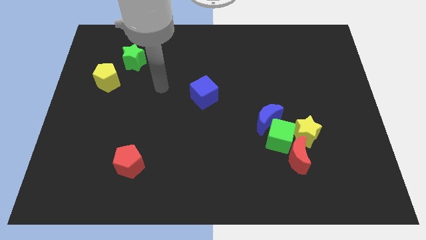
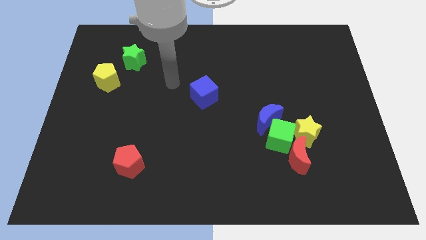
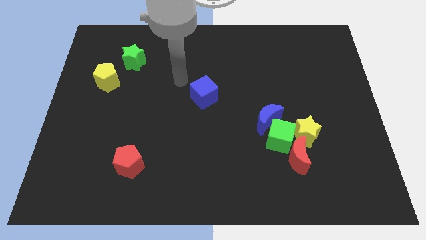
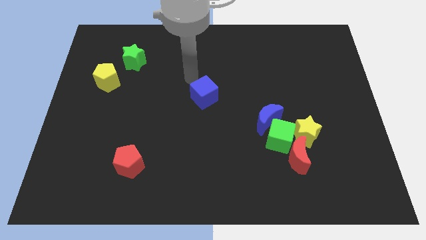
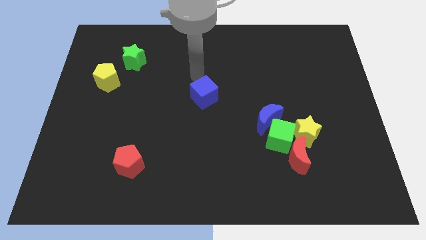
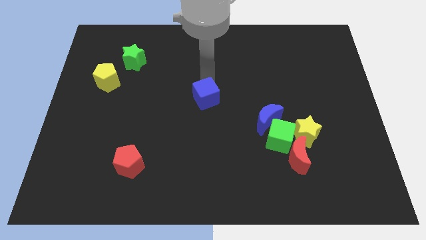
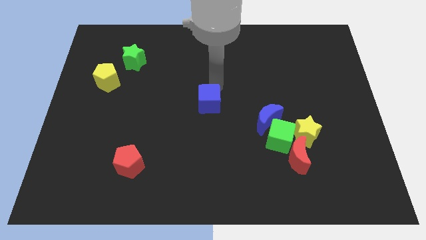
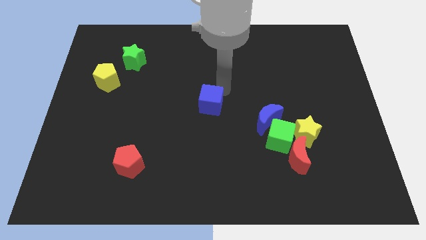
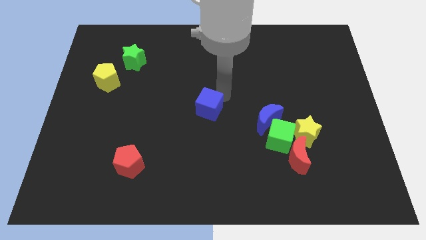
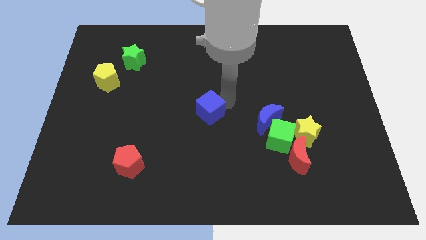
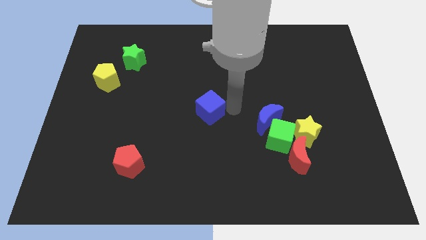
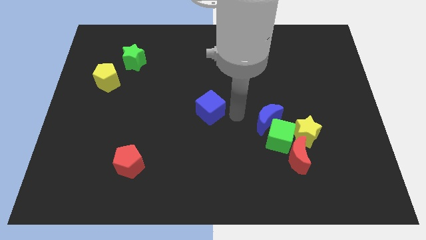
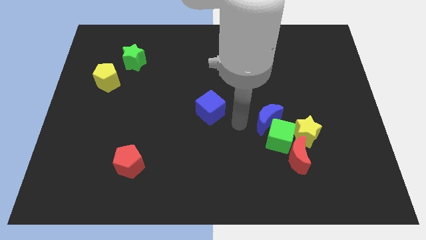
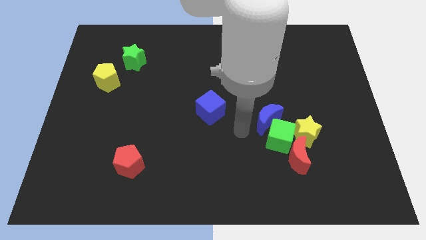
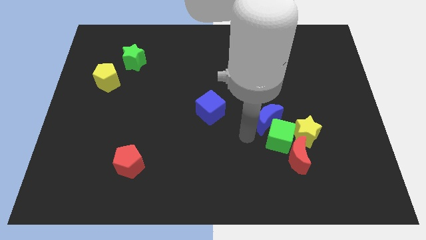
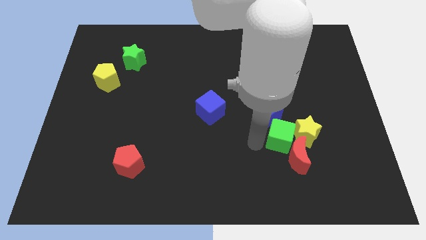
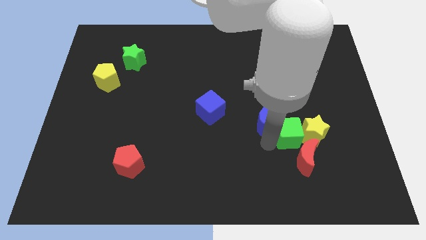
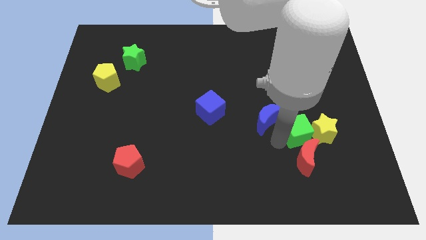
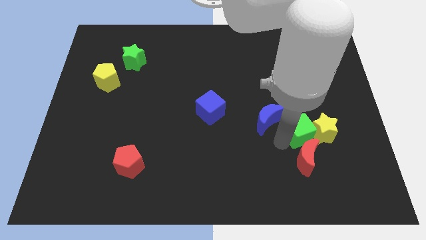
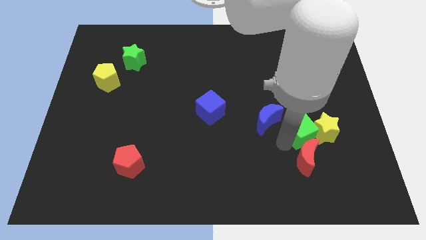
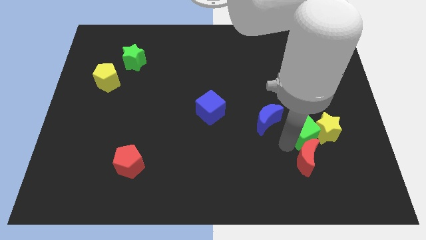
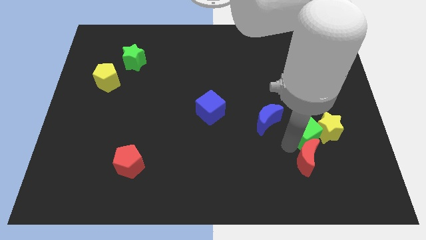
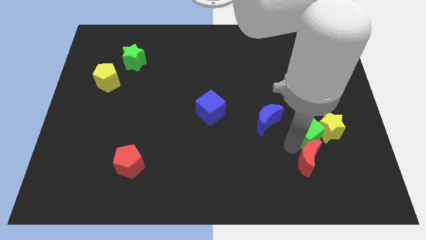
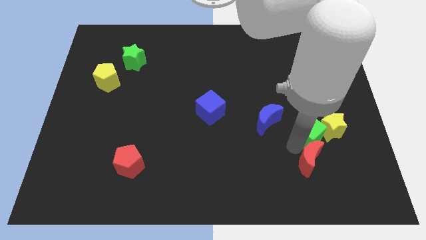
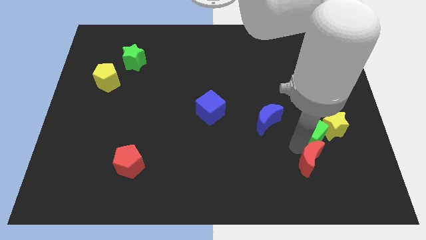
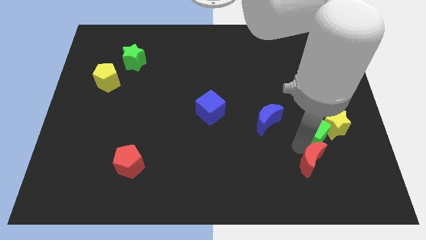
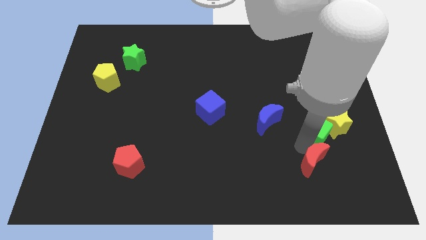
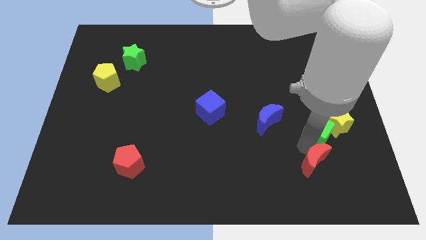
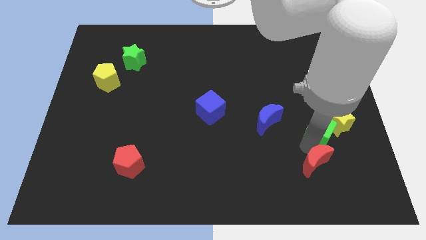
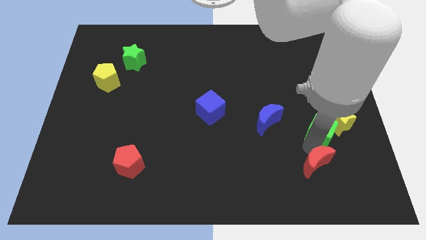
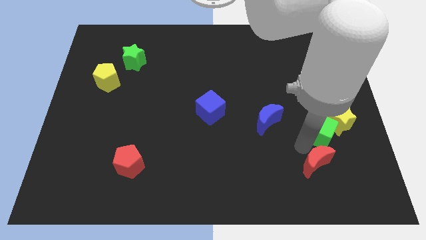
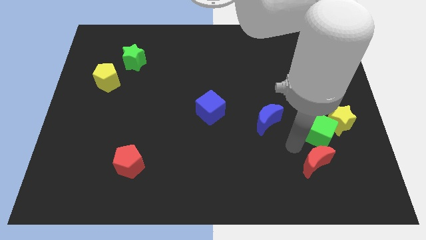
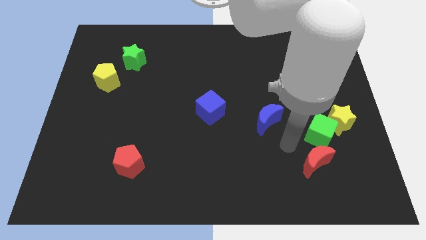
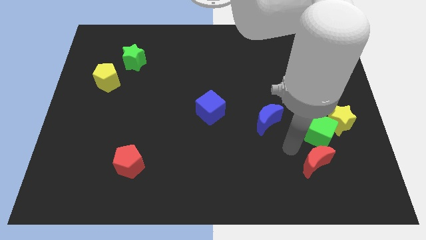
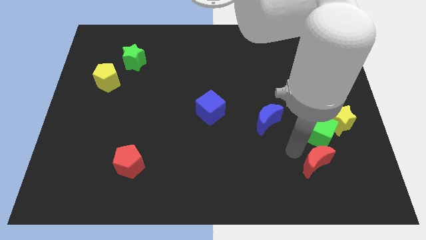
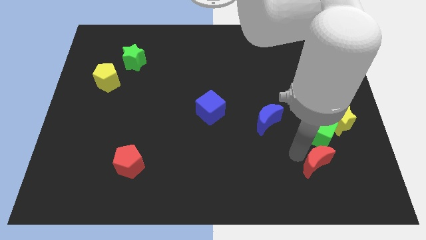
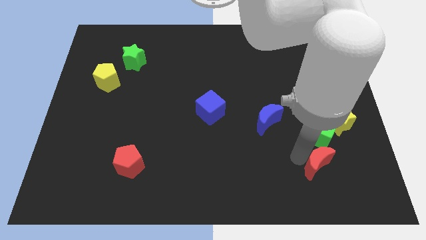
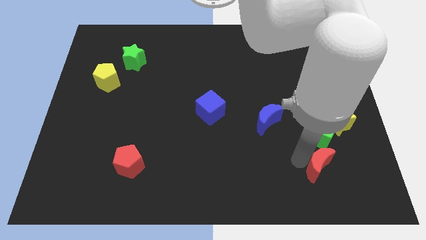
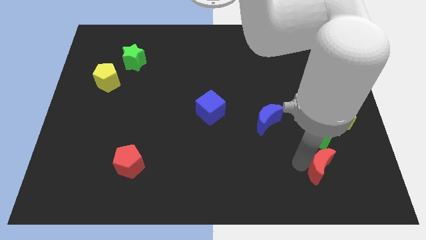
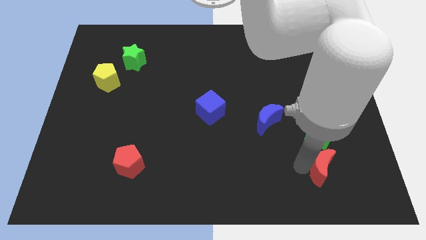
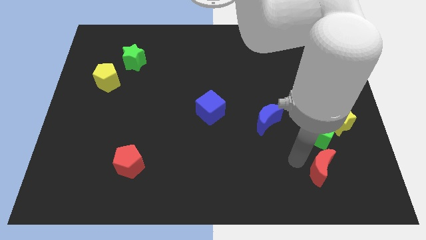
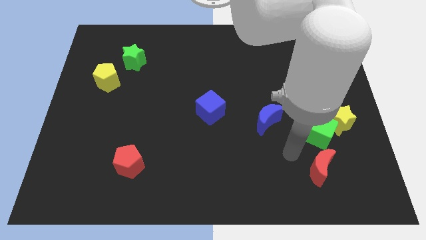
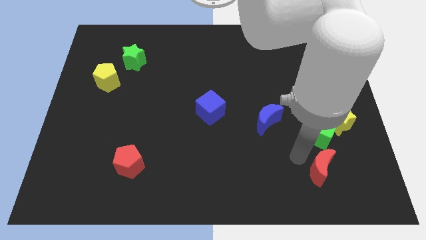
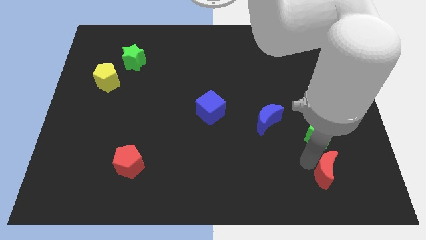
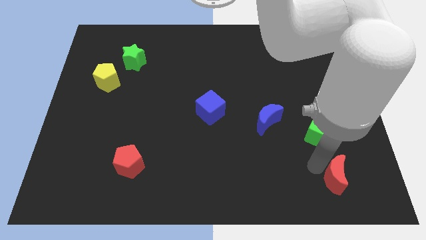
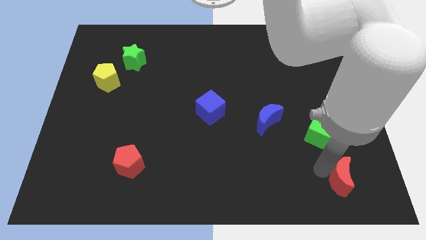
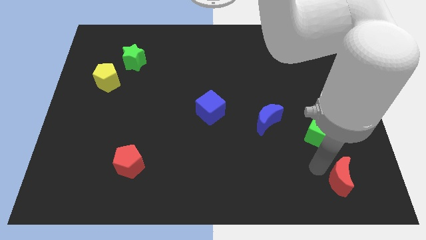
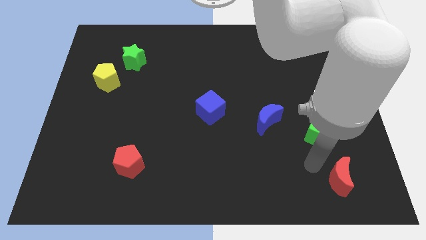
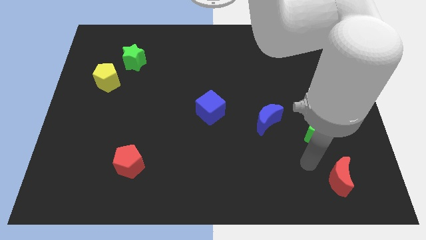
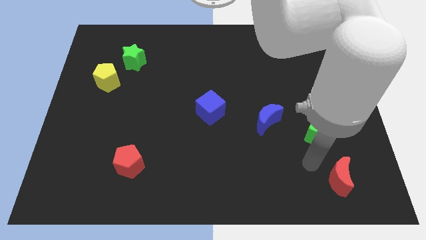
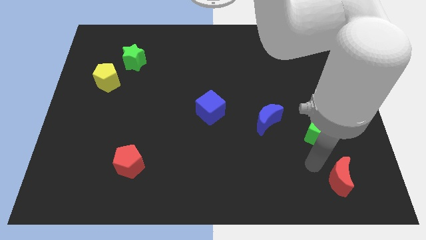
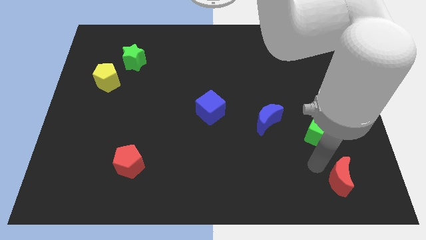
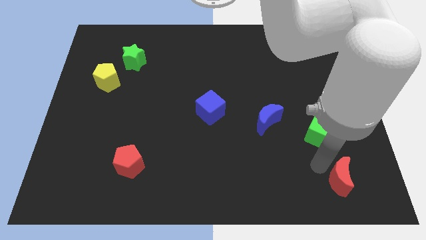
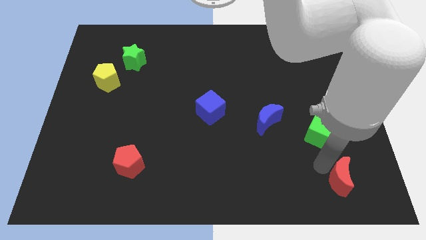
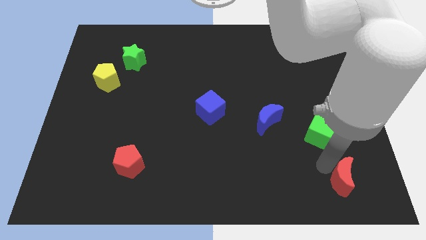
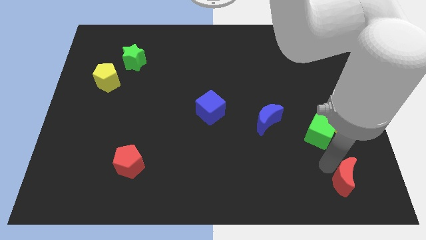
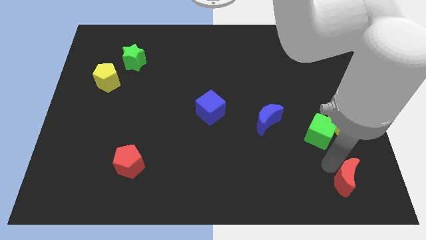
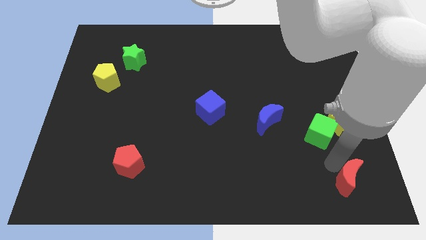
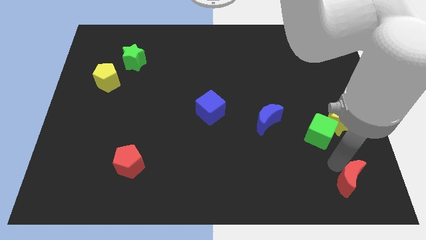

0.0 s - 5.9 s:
push the red moon to the lower right corner
